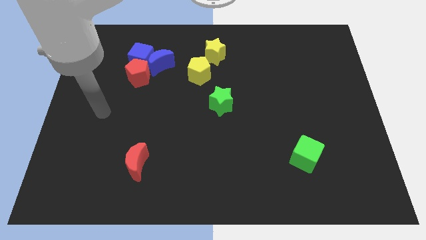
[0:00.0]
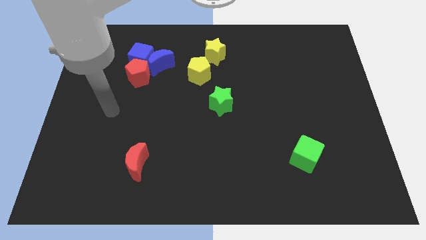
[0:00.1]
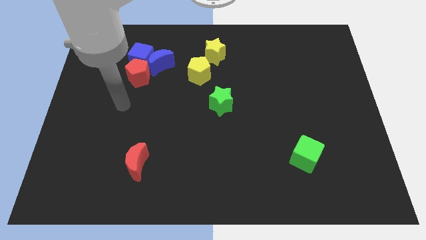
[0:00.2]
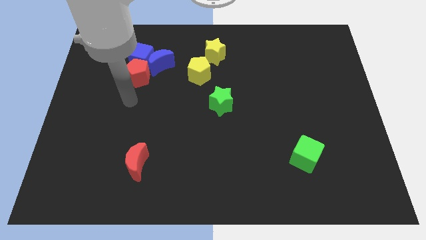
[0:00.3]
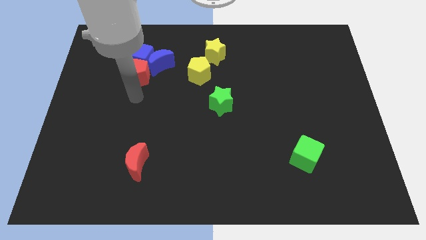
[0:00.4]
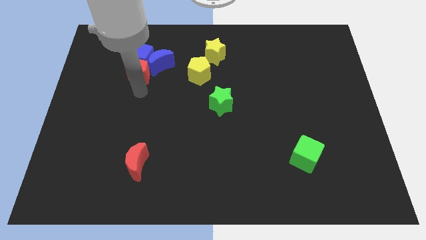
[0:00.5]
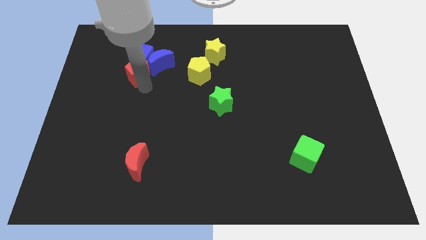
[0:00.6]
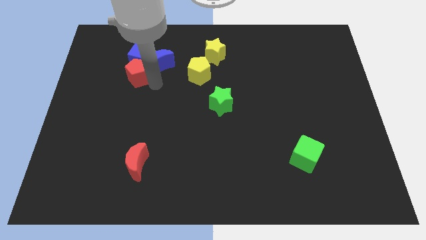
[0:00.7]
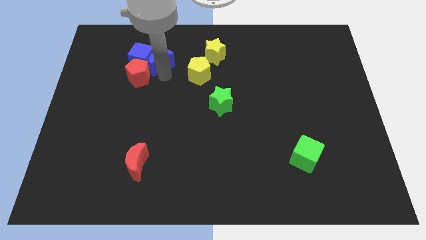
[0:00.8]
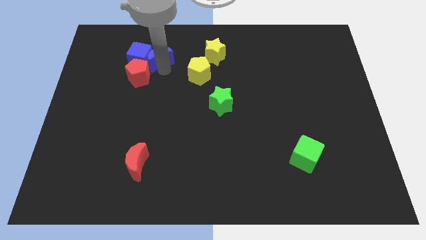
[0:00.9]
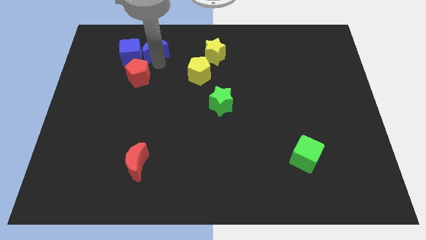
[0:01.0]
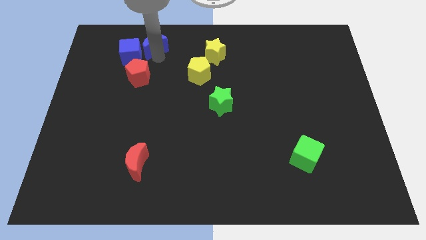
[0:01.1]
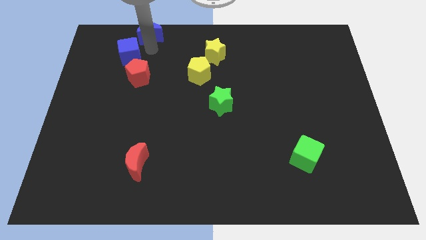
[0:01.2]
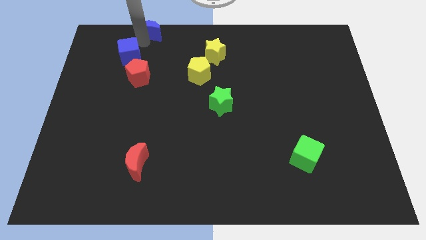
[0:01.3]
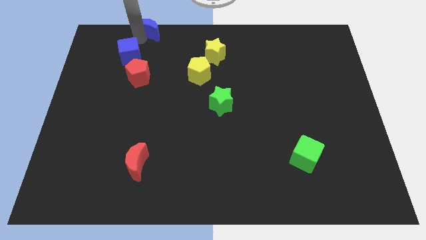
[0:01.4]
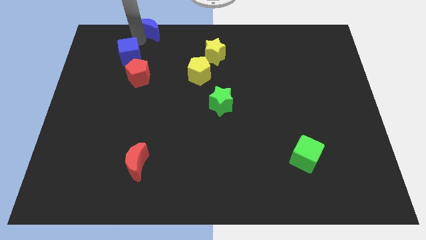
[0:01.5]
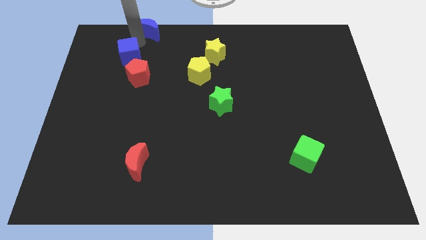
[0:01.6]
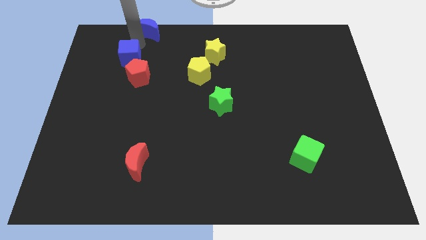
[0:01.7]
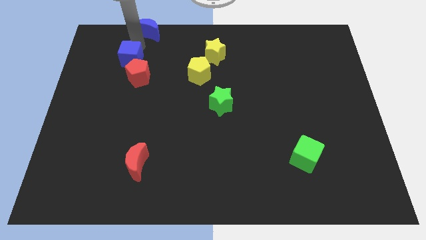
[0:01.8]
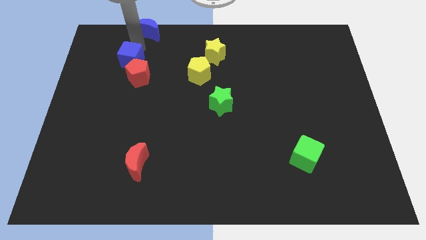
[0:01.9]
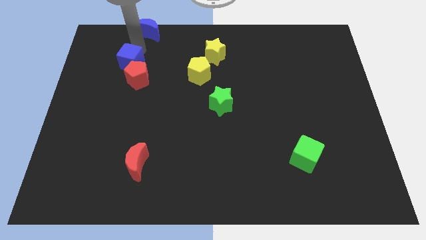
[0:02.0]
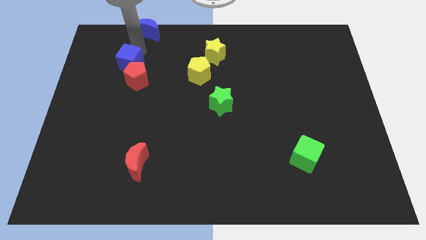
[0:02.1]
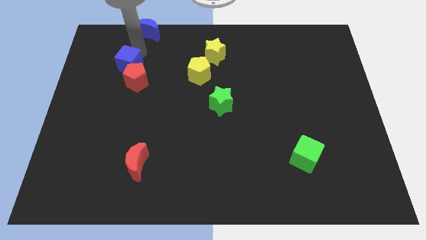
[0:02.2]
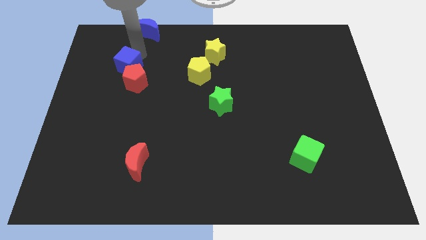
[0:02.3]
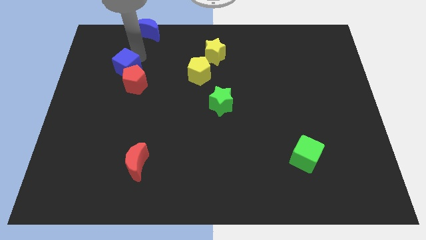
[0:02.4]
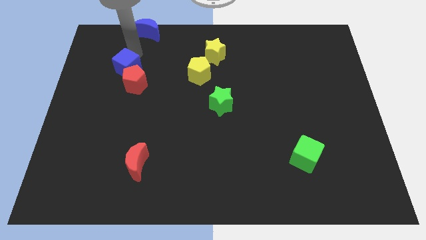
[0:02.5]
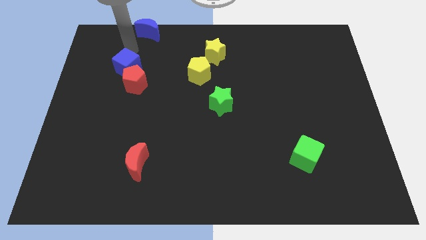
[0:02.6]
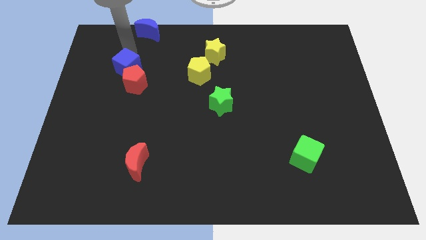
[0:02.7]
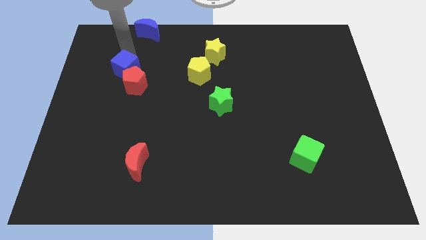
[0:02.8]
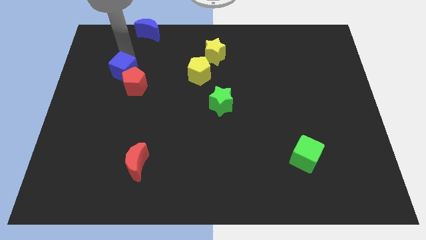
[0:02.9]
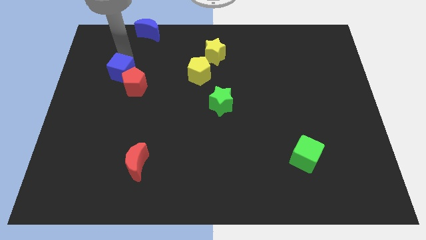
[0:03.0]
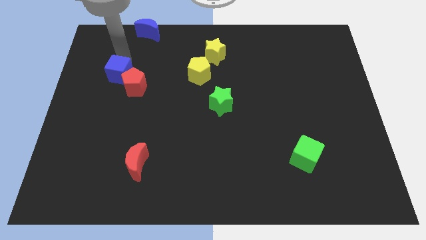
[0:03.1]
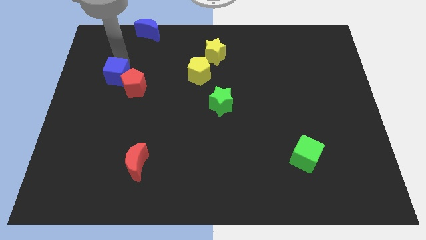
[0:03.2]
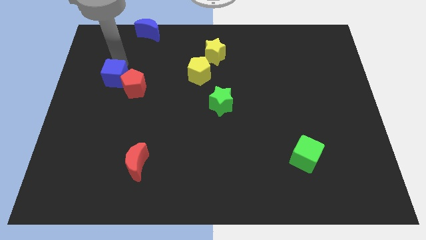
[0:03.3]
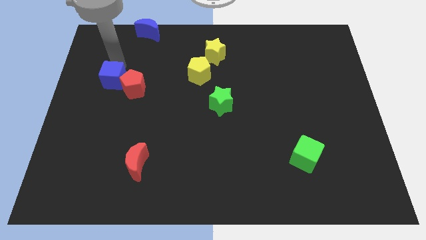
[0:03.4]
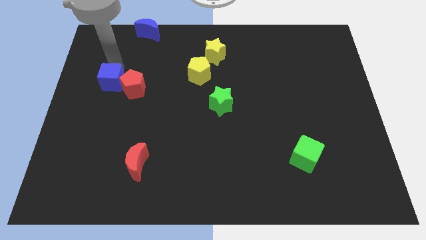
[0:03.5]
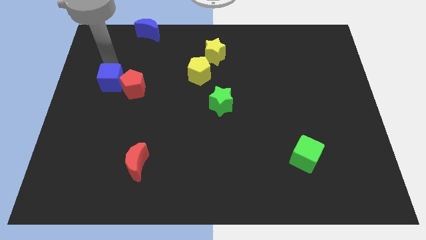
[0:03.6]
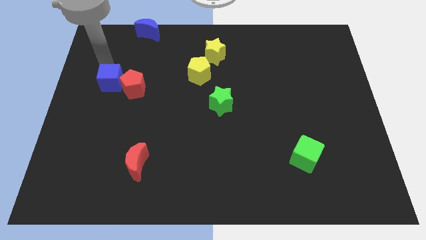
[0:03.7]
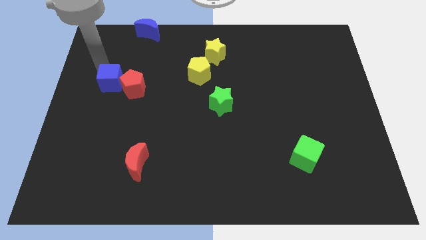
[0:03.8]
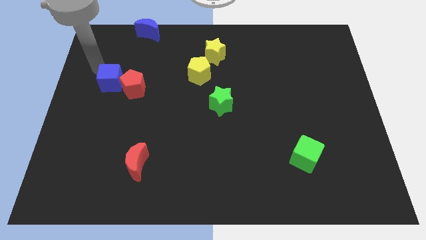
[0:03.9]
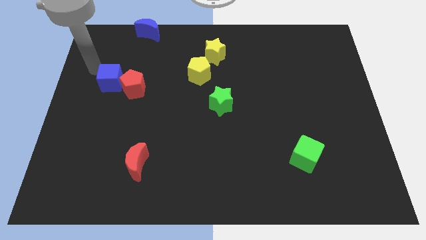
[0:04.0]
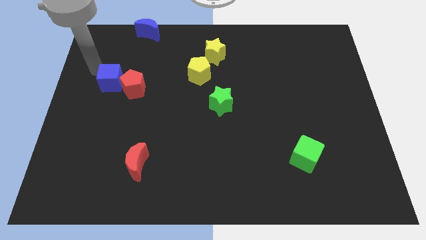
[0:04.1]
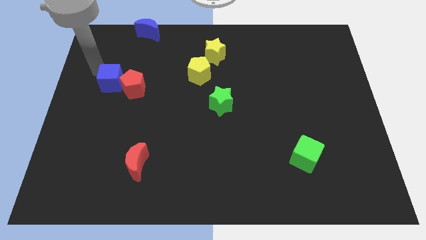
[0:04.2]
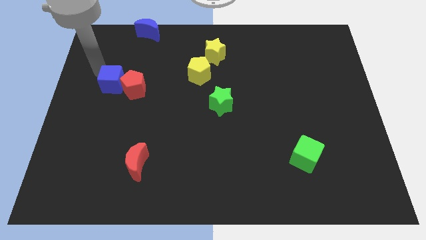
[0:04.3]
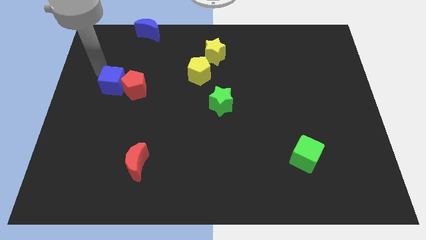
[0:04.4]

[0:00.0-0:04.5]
slightly move the blue cube downwards

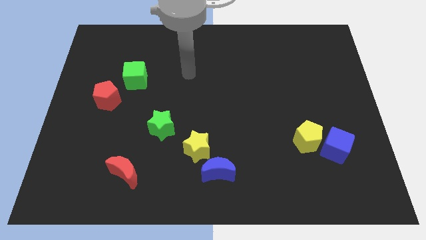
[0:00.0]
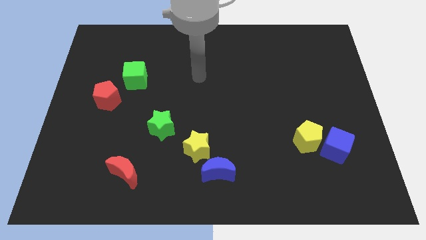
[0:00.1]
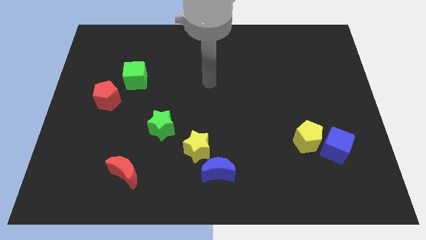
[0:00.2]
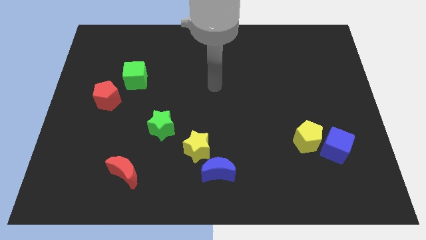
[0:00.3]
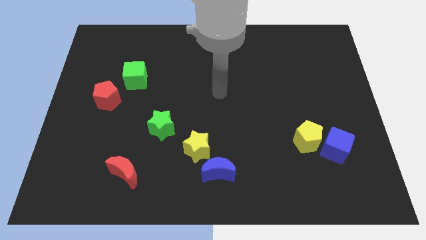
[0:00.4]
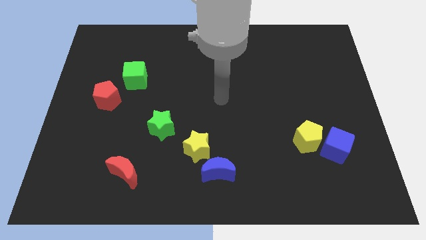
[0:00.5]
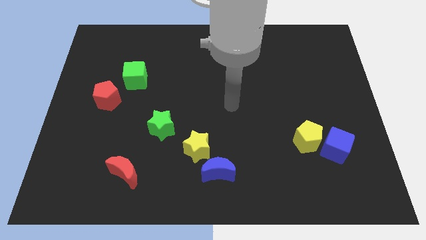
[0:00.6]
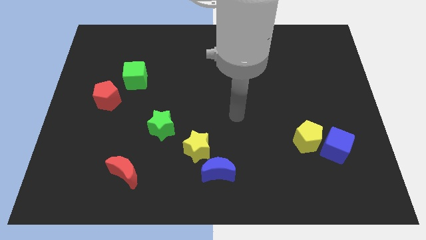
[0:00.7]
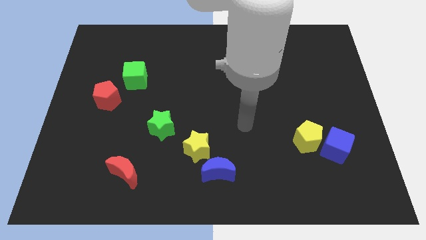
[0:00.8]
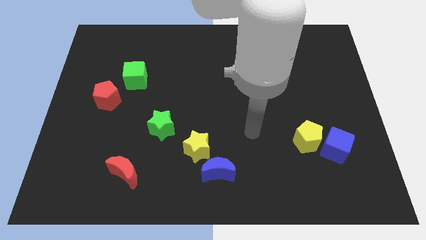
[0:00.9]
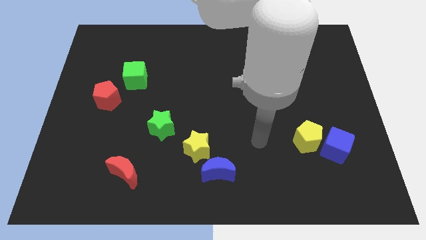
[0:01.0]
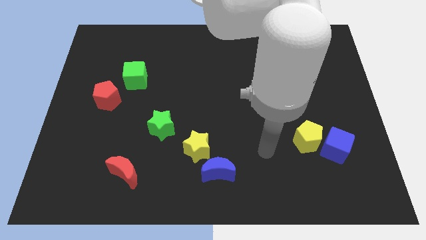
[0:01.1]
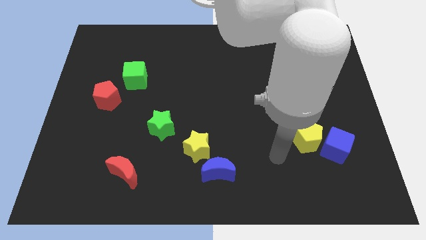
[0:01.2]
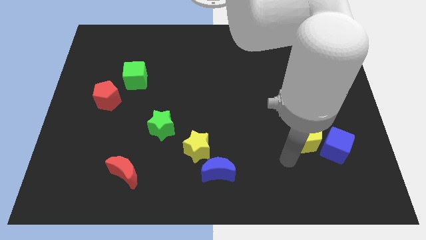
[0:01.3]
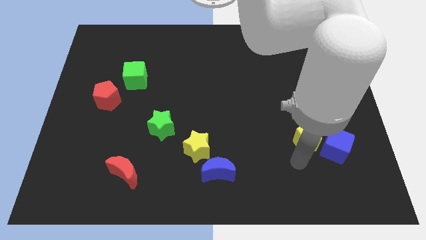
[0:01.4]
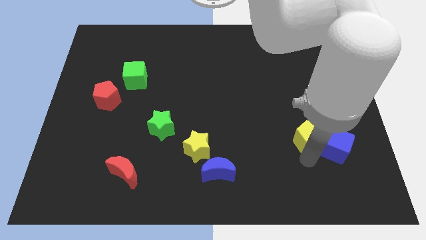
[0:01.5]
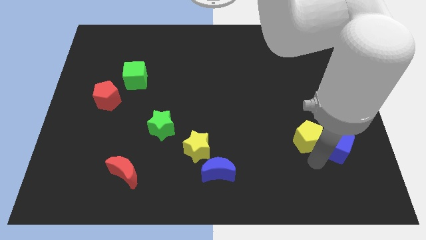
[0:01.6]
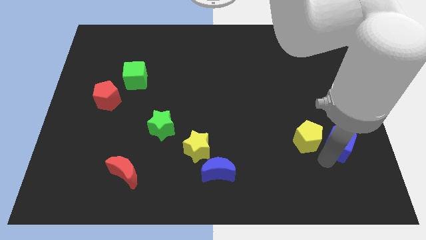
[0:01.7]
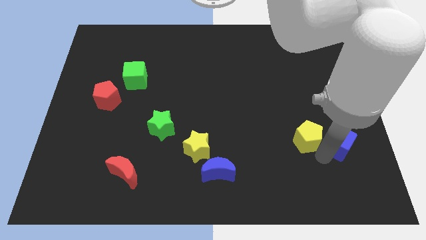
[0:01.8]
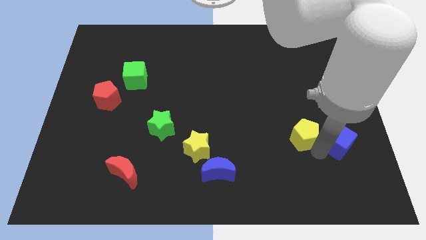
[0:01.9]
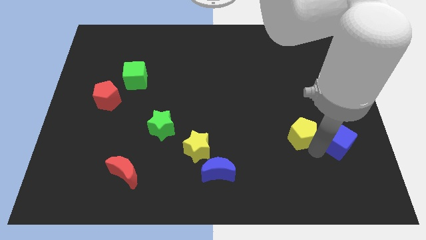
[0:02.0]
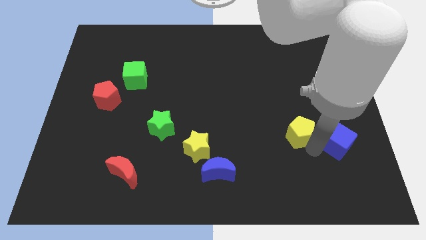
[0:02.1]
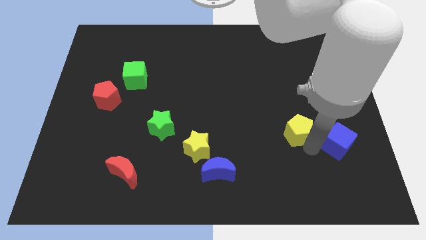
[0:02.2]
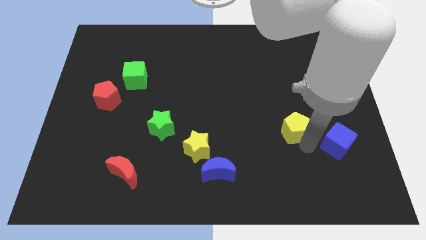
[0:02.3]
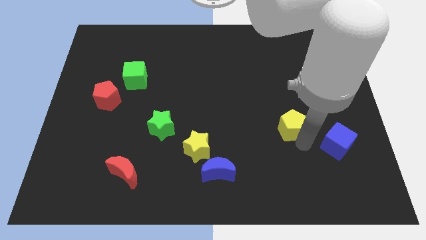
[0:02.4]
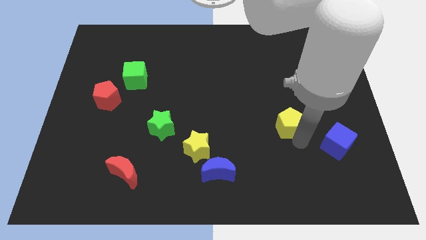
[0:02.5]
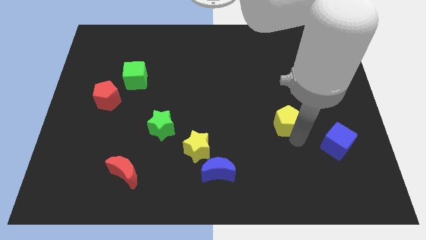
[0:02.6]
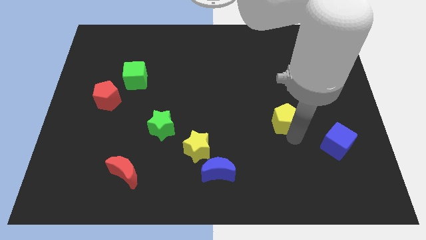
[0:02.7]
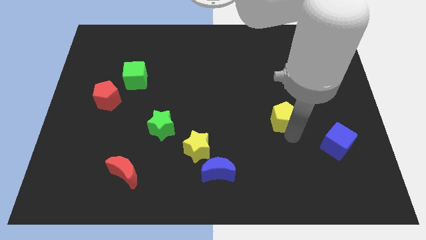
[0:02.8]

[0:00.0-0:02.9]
push the yellow pentagon a bit upwards and to the left

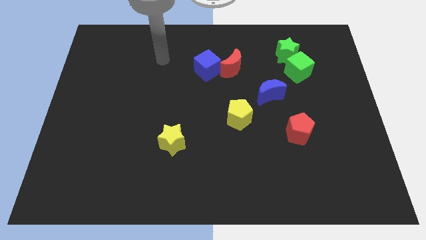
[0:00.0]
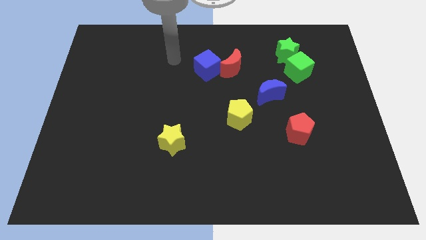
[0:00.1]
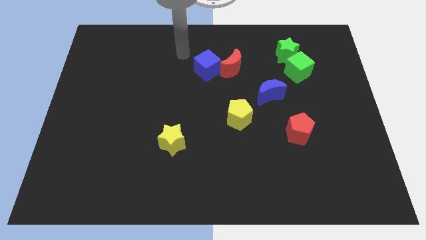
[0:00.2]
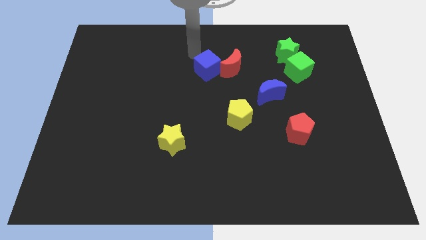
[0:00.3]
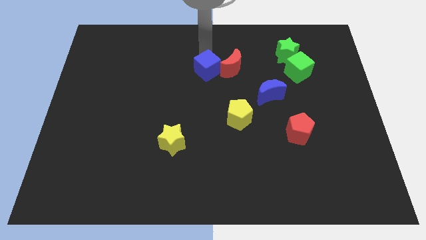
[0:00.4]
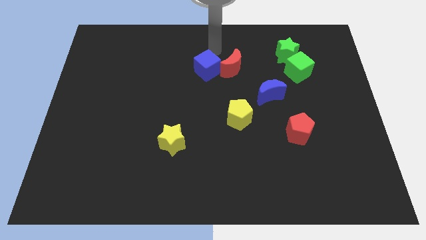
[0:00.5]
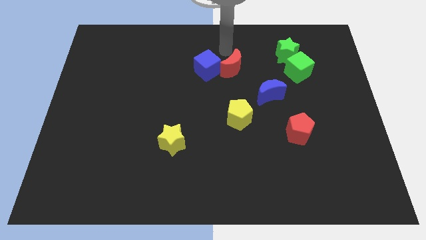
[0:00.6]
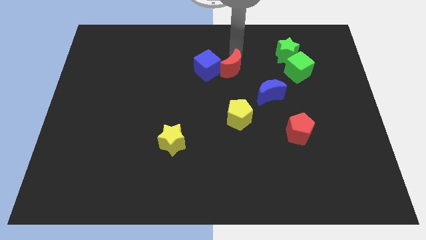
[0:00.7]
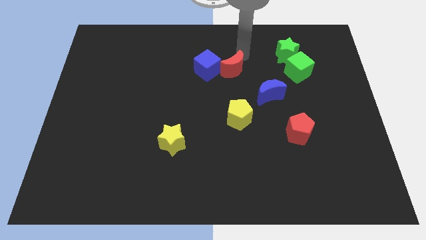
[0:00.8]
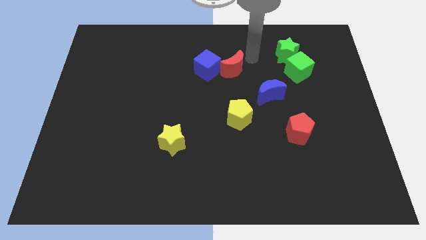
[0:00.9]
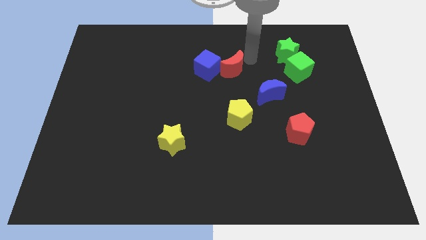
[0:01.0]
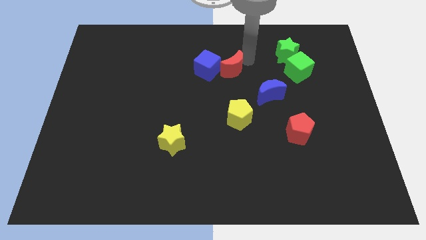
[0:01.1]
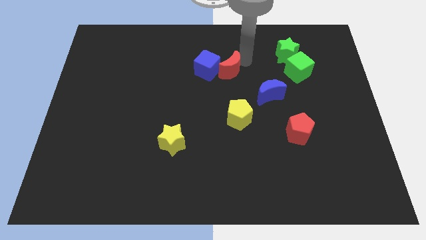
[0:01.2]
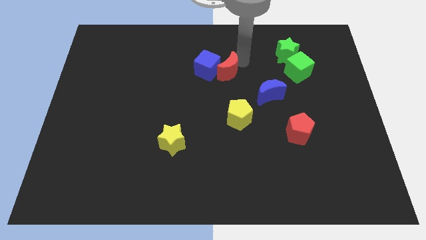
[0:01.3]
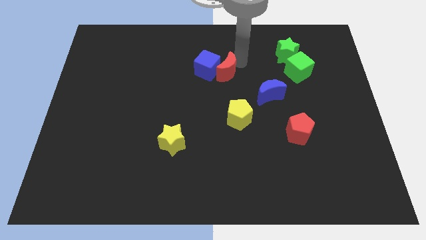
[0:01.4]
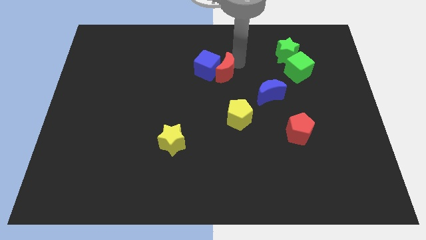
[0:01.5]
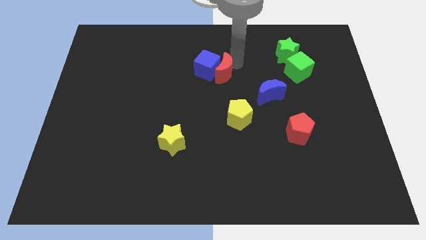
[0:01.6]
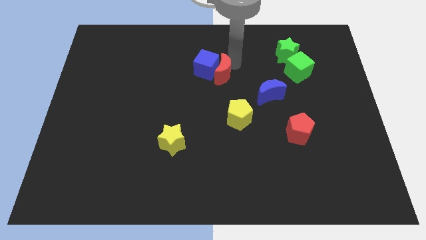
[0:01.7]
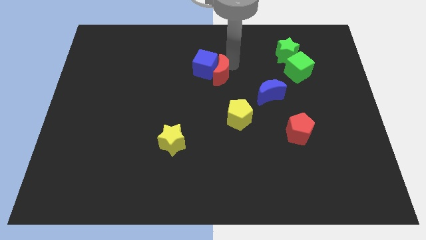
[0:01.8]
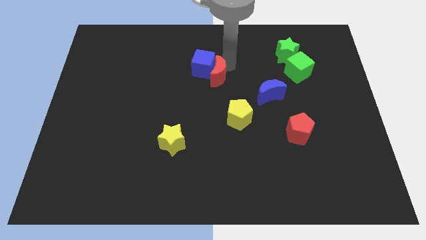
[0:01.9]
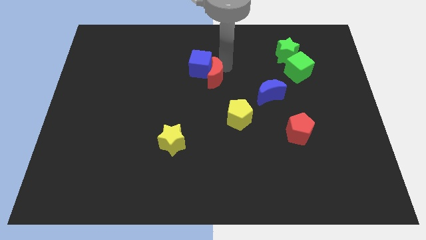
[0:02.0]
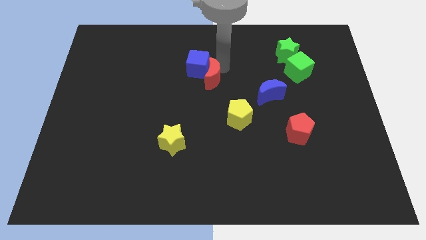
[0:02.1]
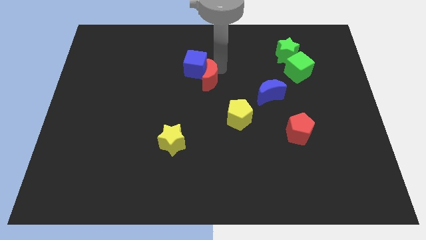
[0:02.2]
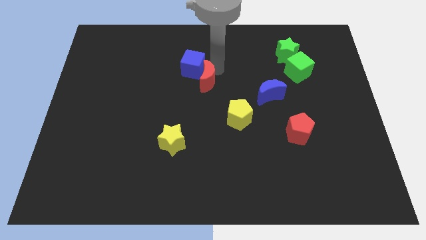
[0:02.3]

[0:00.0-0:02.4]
push the red moon down and then to the left a little
